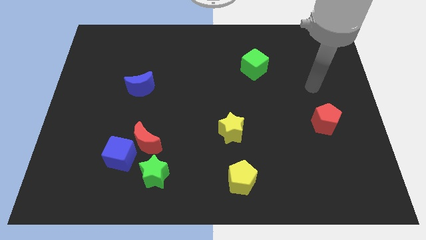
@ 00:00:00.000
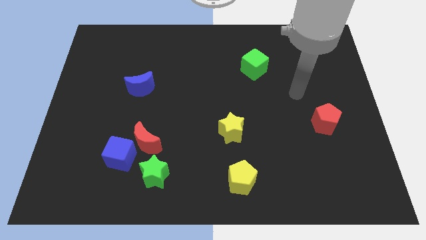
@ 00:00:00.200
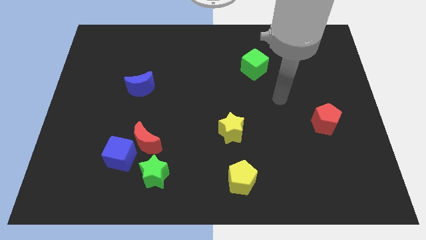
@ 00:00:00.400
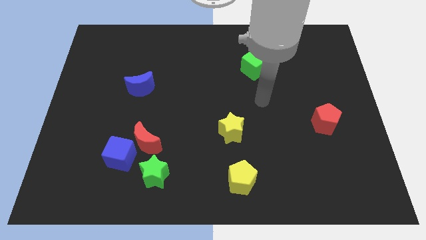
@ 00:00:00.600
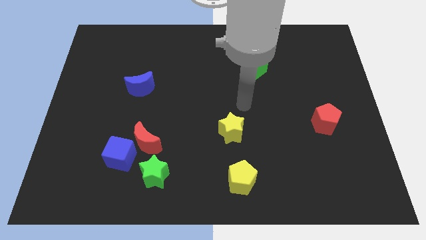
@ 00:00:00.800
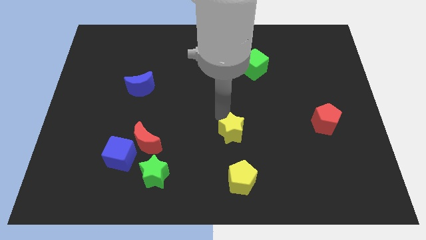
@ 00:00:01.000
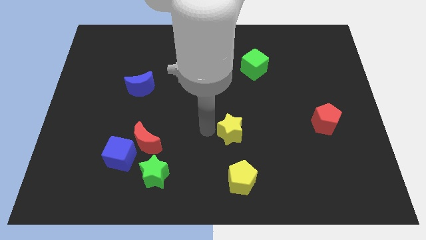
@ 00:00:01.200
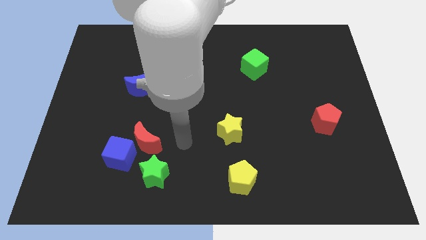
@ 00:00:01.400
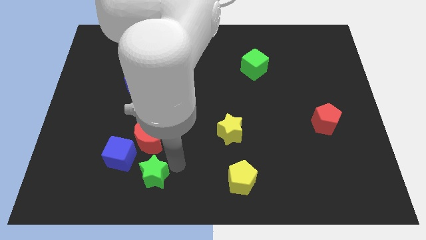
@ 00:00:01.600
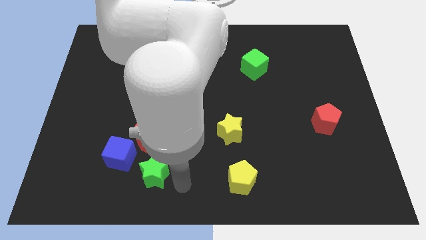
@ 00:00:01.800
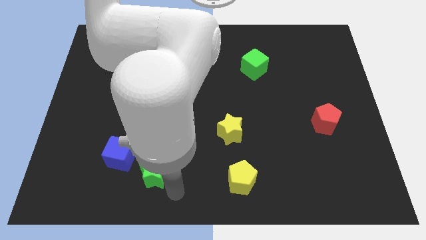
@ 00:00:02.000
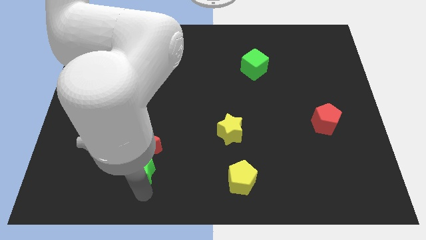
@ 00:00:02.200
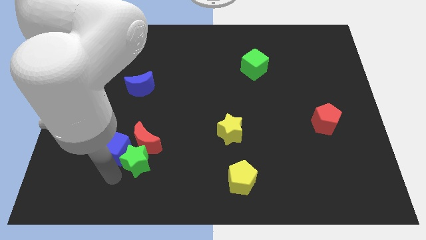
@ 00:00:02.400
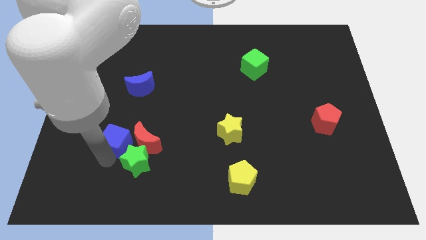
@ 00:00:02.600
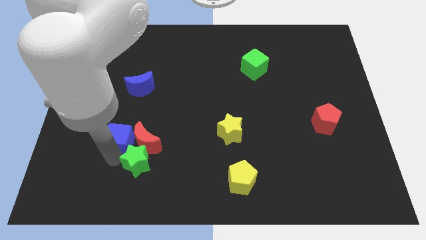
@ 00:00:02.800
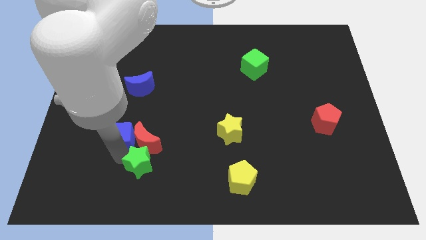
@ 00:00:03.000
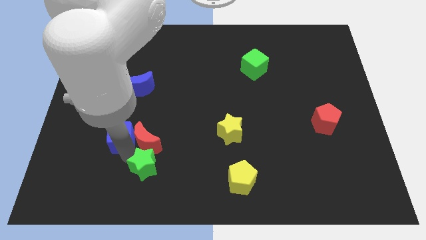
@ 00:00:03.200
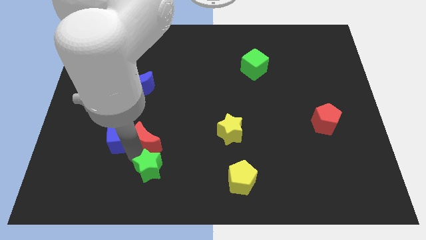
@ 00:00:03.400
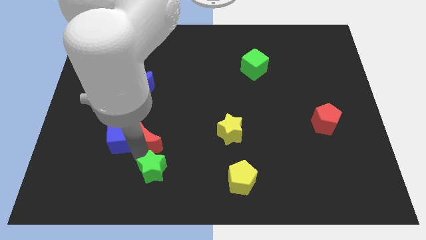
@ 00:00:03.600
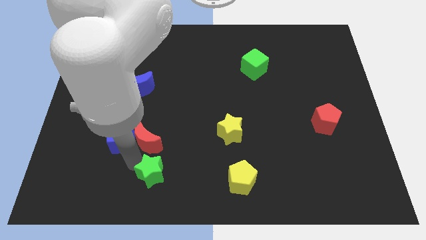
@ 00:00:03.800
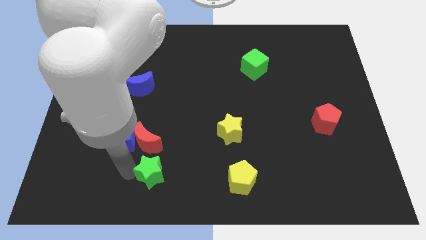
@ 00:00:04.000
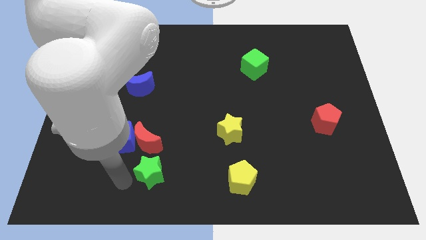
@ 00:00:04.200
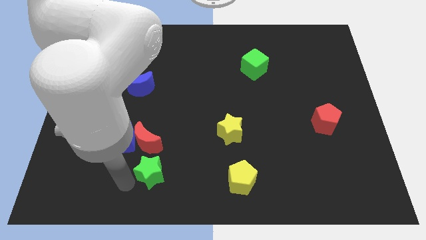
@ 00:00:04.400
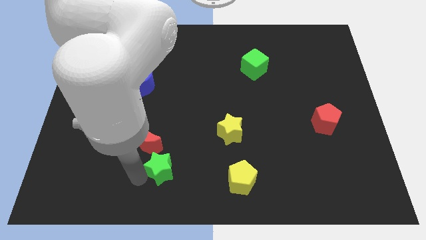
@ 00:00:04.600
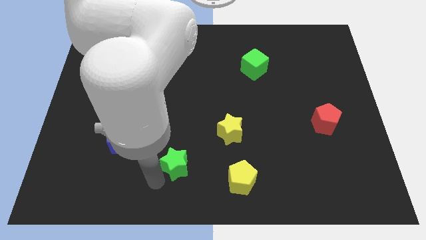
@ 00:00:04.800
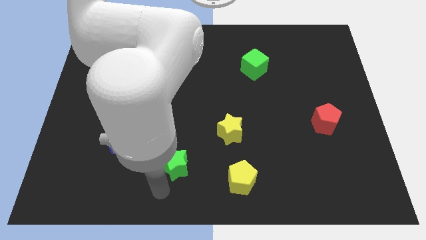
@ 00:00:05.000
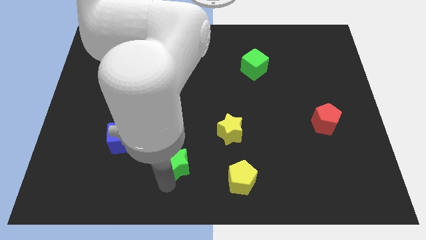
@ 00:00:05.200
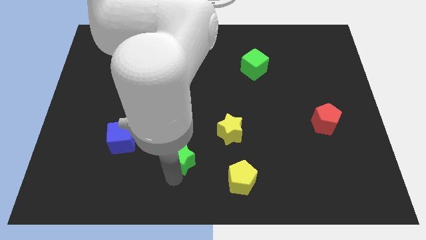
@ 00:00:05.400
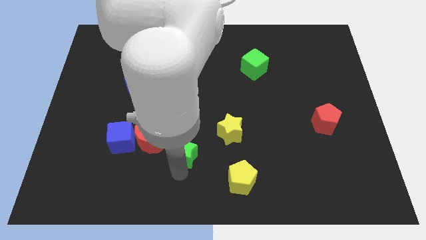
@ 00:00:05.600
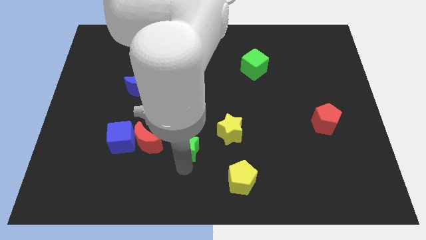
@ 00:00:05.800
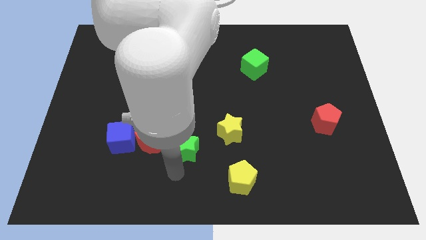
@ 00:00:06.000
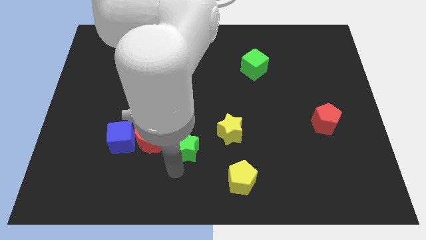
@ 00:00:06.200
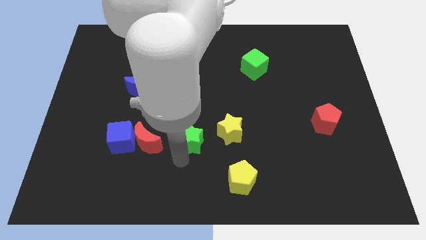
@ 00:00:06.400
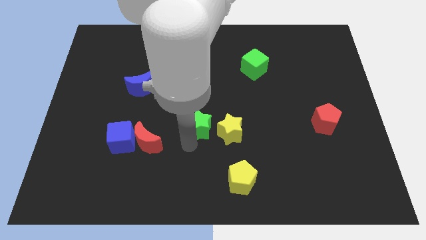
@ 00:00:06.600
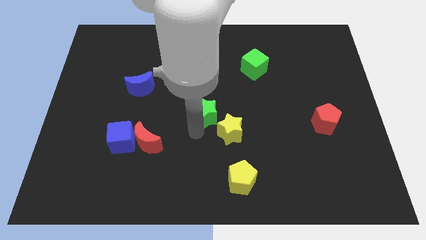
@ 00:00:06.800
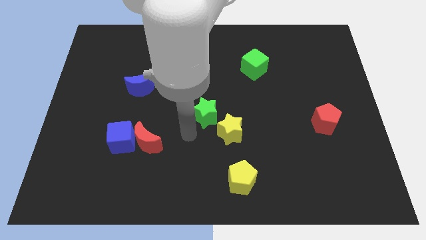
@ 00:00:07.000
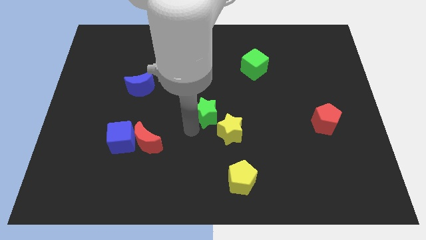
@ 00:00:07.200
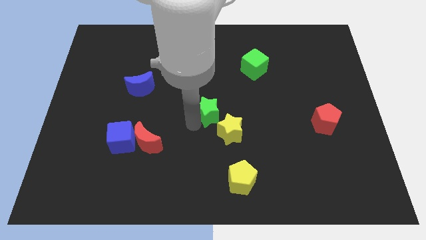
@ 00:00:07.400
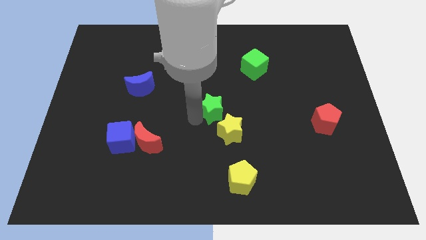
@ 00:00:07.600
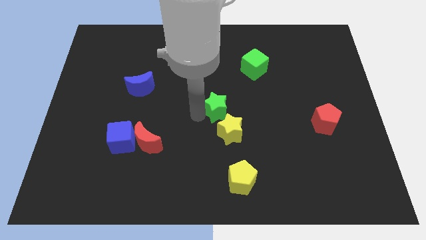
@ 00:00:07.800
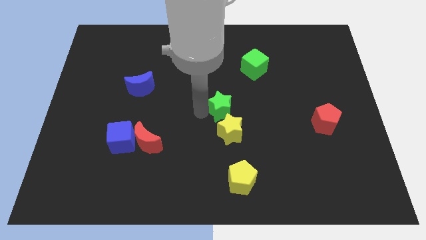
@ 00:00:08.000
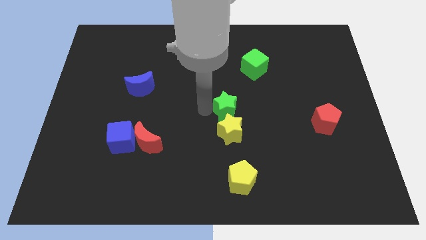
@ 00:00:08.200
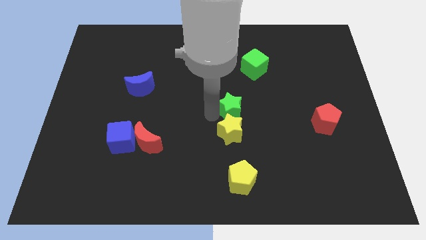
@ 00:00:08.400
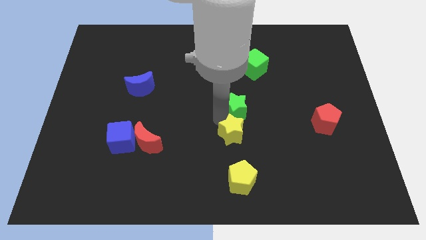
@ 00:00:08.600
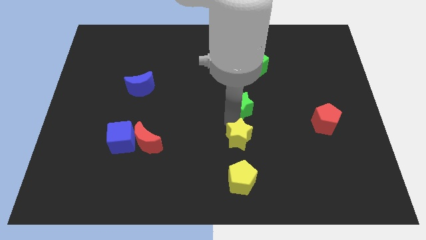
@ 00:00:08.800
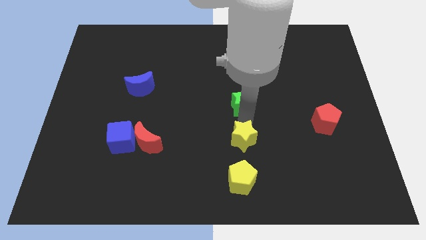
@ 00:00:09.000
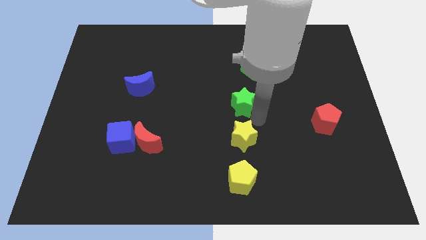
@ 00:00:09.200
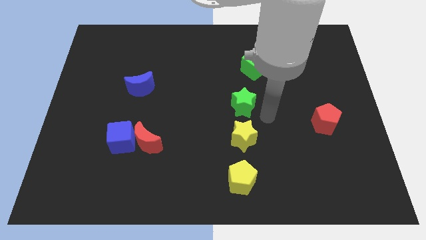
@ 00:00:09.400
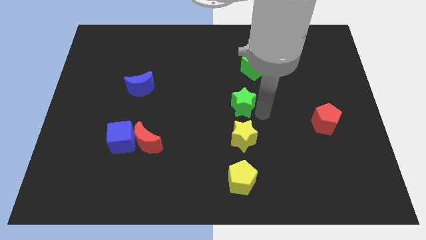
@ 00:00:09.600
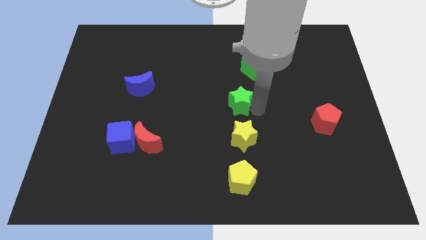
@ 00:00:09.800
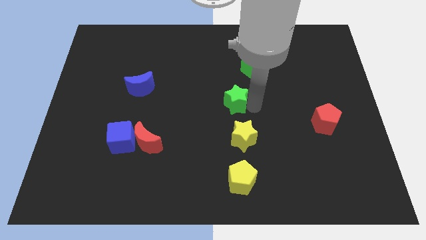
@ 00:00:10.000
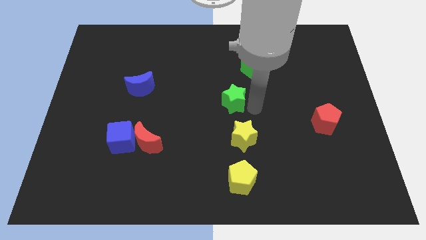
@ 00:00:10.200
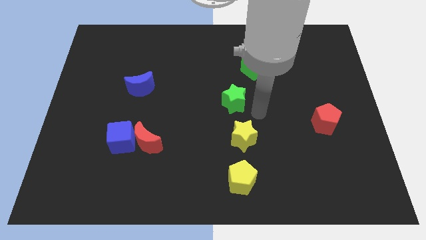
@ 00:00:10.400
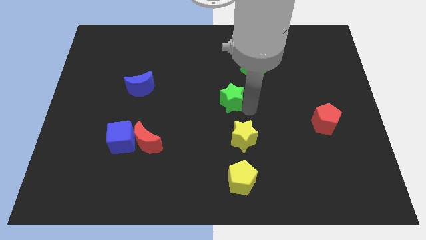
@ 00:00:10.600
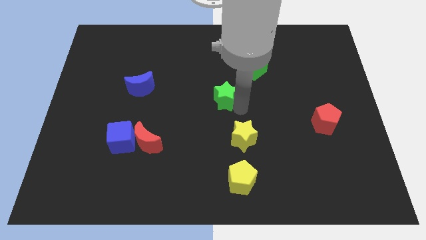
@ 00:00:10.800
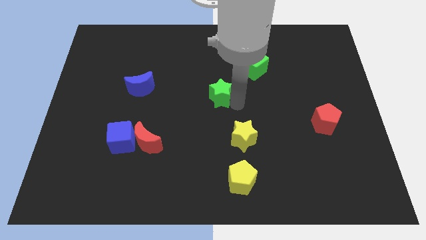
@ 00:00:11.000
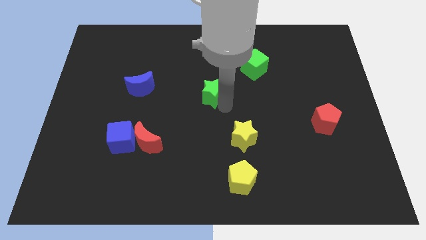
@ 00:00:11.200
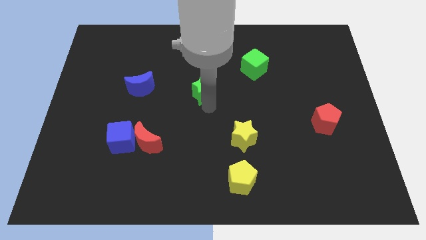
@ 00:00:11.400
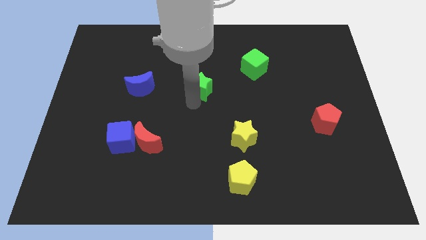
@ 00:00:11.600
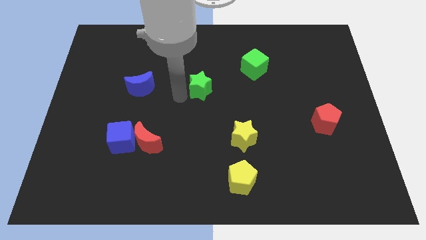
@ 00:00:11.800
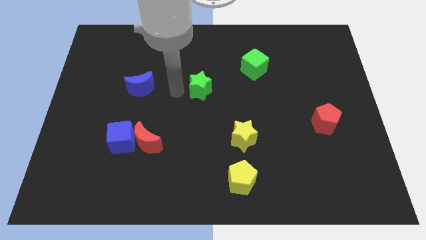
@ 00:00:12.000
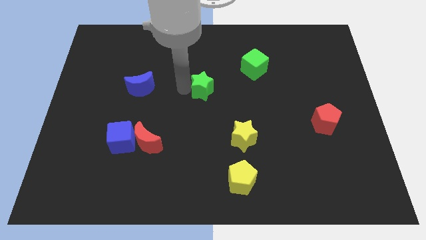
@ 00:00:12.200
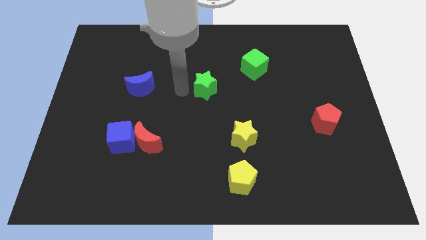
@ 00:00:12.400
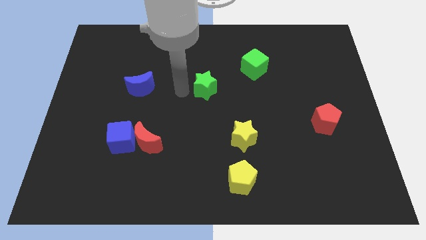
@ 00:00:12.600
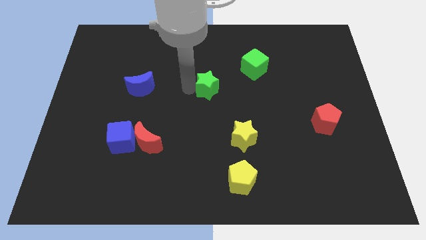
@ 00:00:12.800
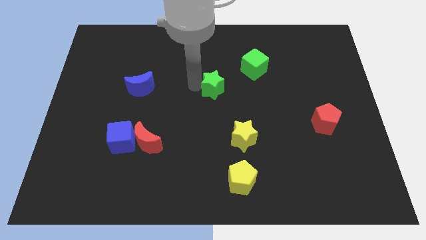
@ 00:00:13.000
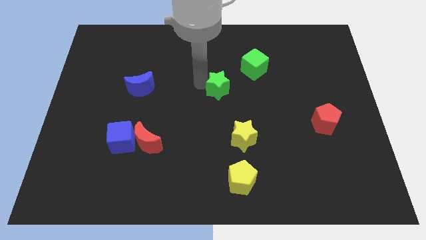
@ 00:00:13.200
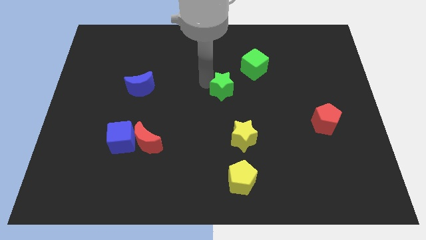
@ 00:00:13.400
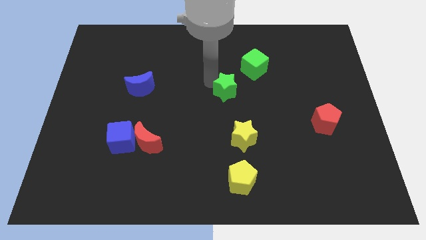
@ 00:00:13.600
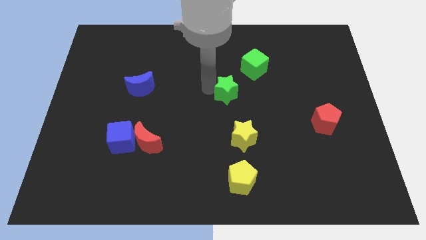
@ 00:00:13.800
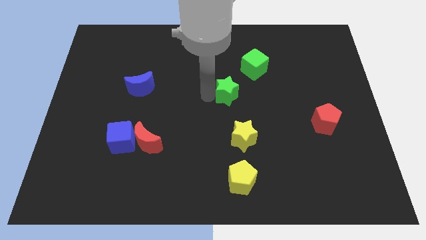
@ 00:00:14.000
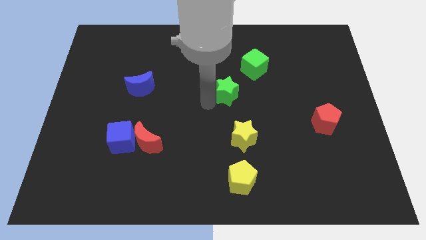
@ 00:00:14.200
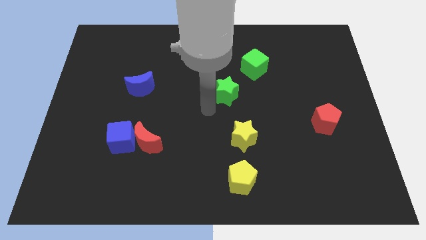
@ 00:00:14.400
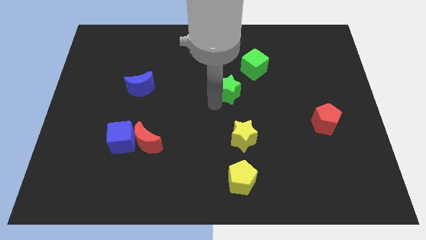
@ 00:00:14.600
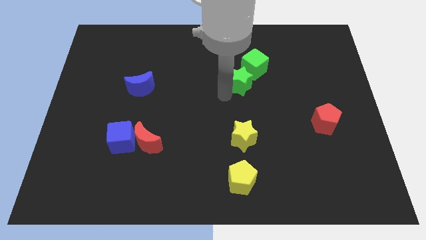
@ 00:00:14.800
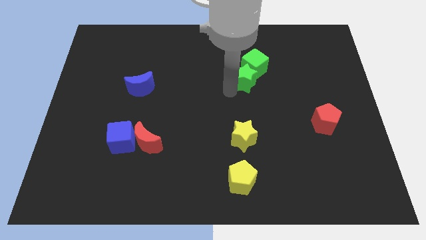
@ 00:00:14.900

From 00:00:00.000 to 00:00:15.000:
slide the green star next to the green cube
